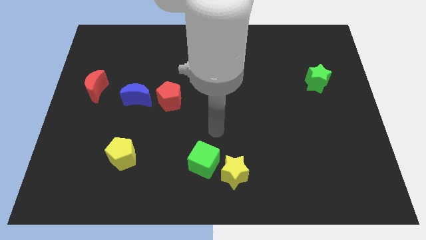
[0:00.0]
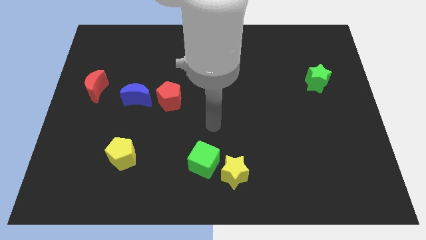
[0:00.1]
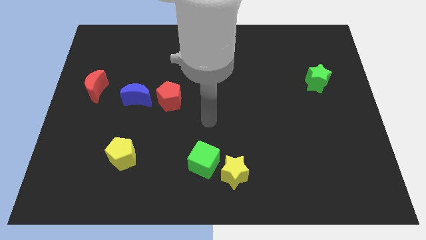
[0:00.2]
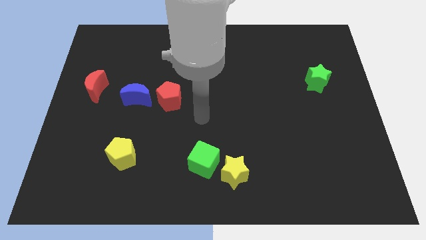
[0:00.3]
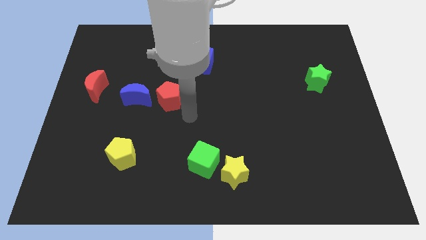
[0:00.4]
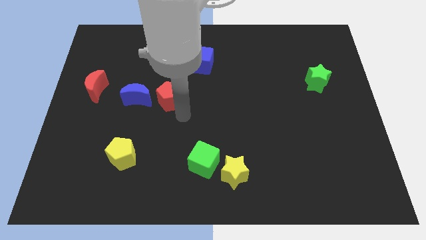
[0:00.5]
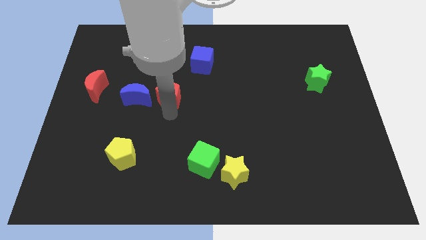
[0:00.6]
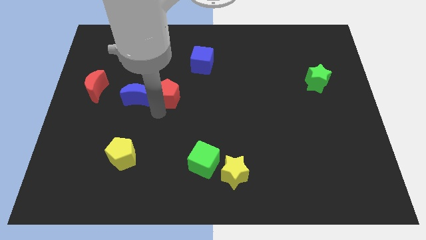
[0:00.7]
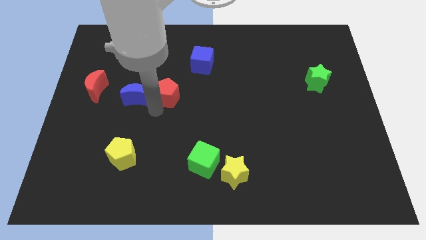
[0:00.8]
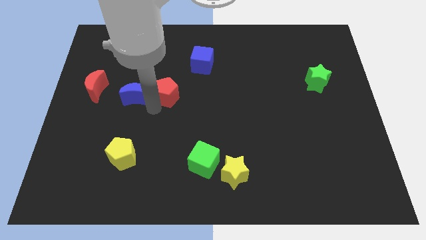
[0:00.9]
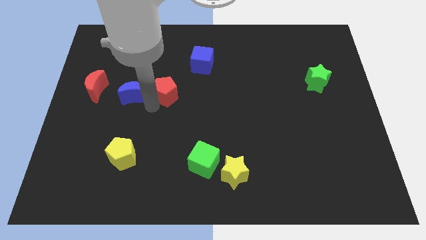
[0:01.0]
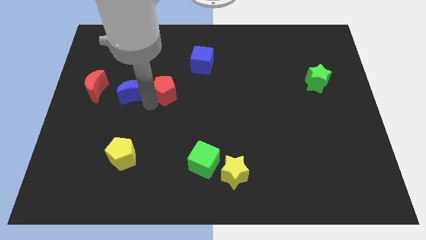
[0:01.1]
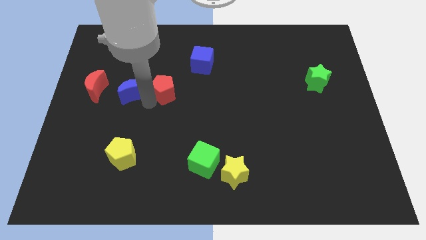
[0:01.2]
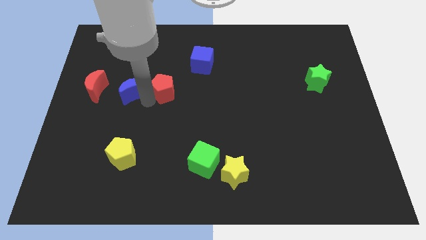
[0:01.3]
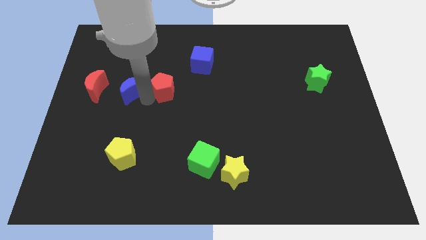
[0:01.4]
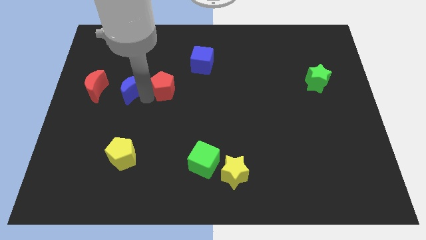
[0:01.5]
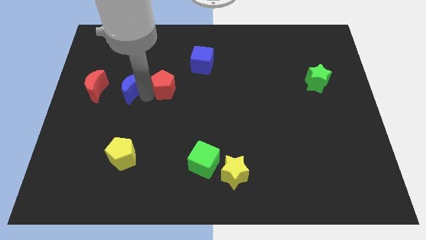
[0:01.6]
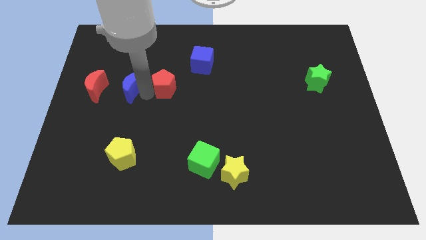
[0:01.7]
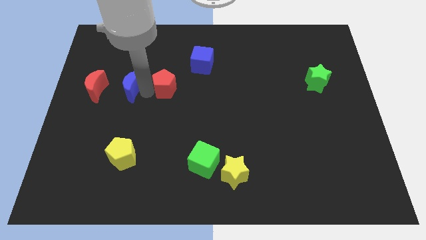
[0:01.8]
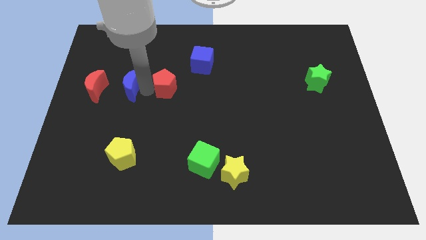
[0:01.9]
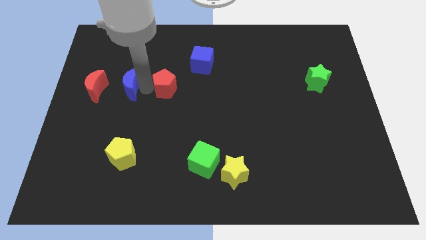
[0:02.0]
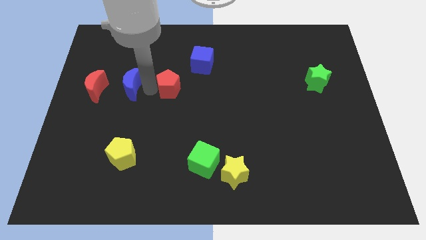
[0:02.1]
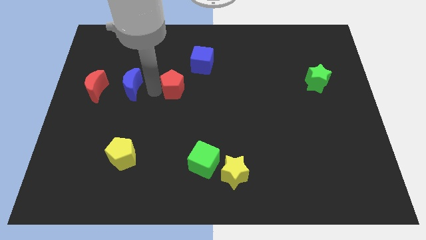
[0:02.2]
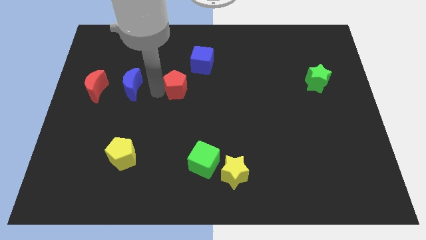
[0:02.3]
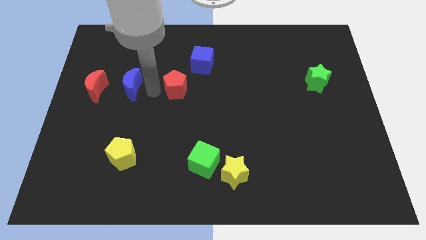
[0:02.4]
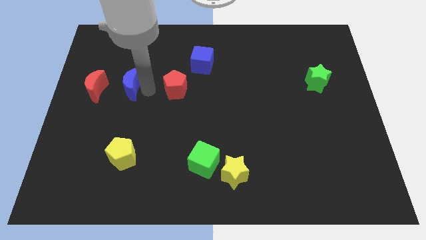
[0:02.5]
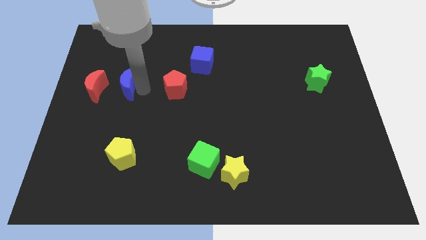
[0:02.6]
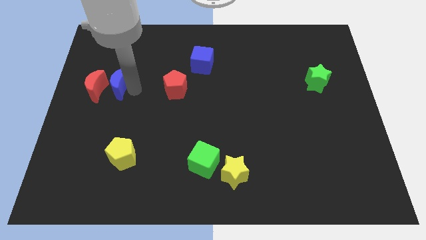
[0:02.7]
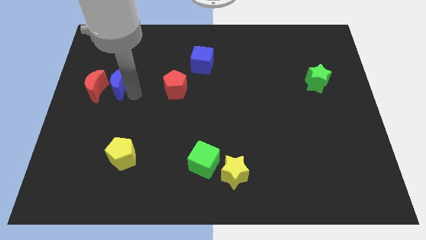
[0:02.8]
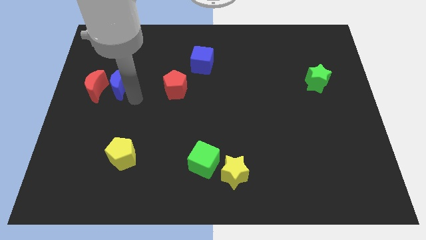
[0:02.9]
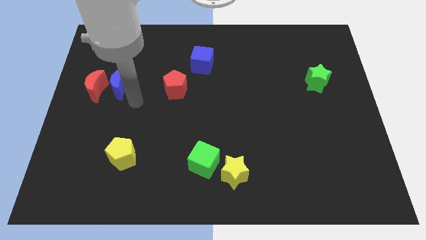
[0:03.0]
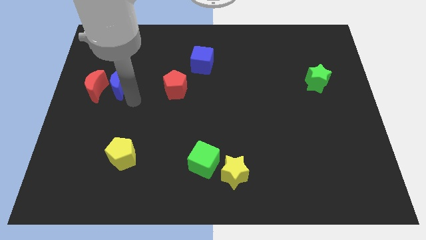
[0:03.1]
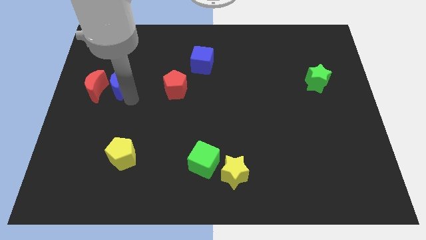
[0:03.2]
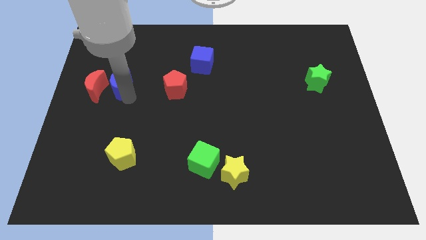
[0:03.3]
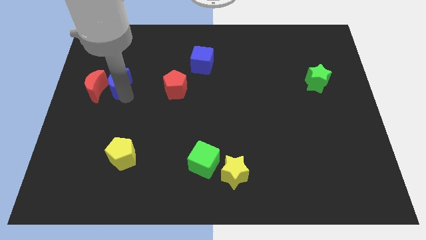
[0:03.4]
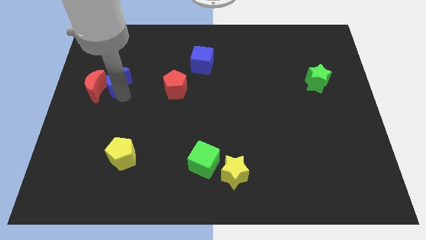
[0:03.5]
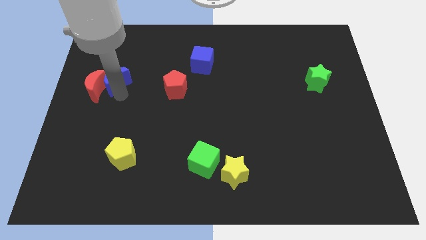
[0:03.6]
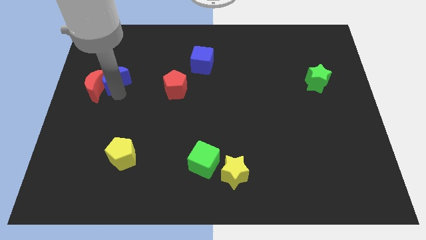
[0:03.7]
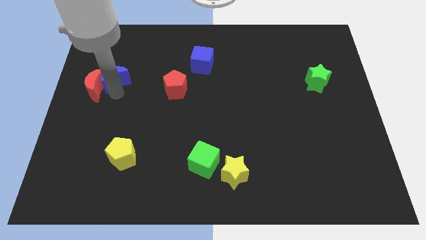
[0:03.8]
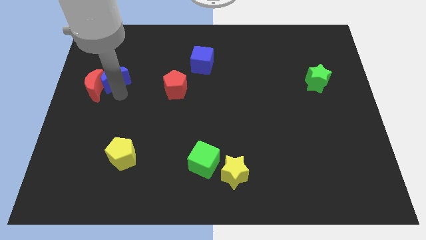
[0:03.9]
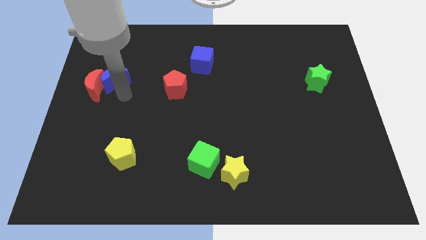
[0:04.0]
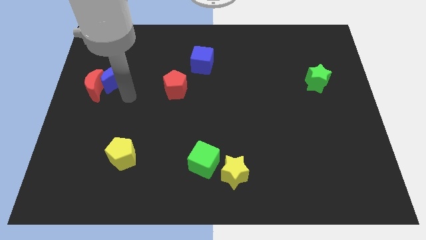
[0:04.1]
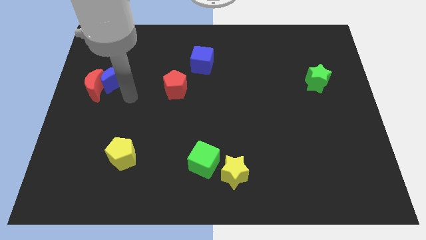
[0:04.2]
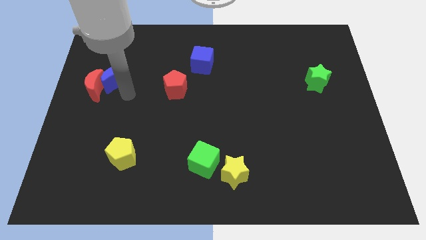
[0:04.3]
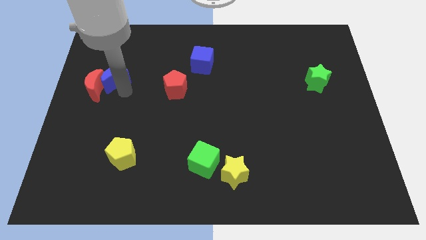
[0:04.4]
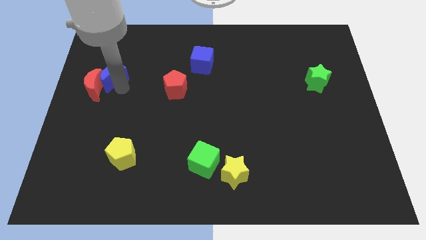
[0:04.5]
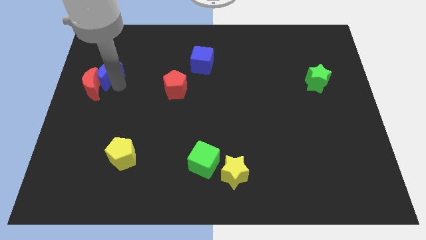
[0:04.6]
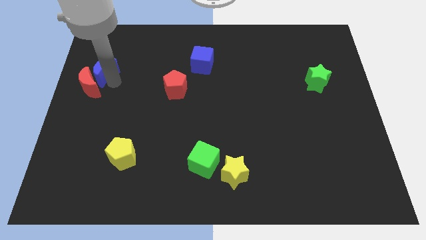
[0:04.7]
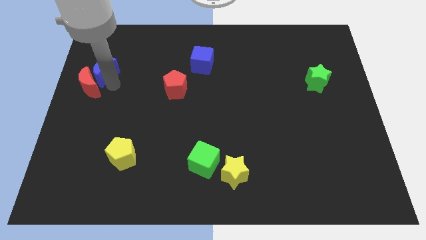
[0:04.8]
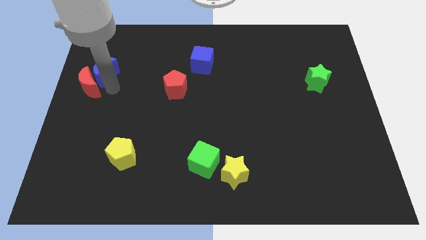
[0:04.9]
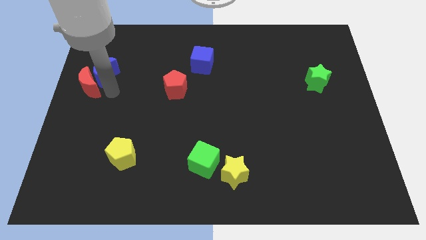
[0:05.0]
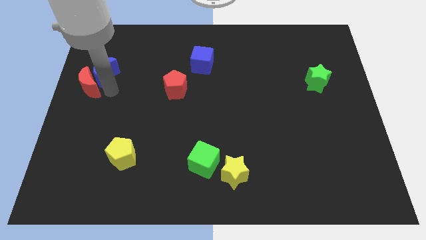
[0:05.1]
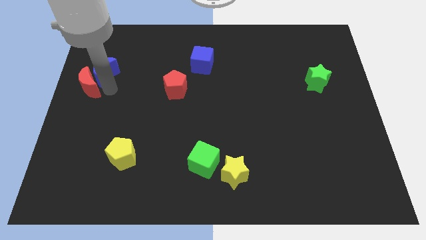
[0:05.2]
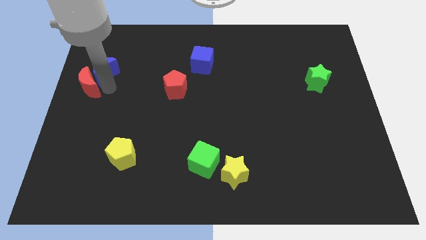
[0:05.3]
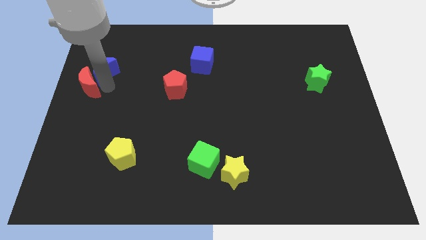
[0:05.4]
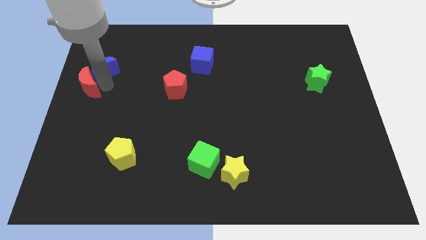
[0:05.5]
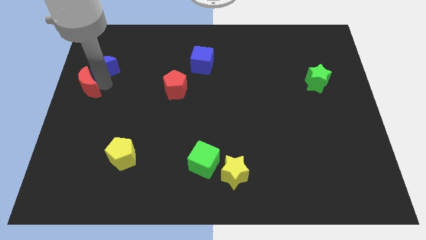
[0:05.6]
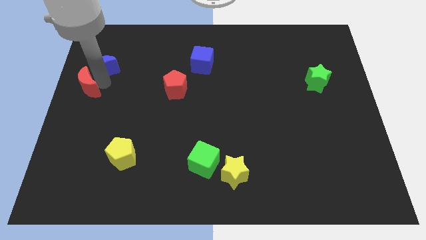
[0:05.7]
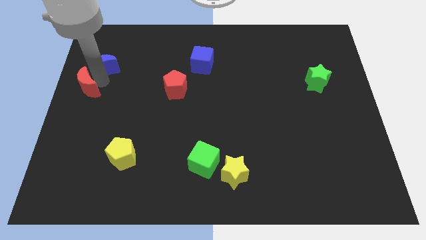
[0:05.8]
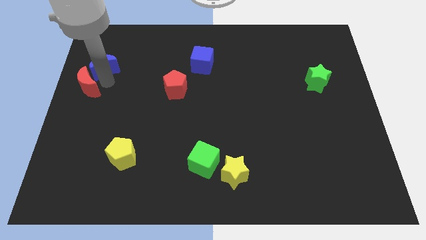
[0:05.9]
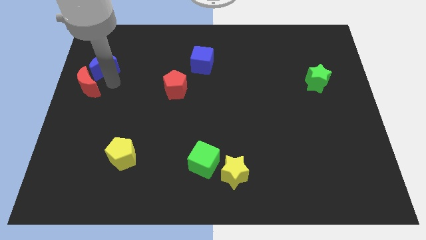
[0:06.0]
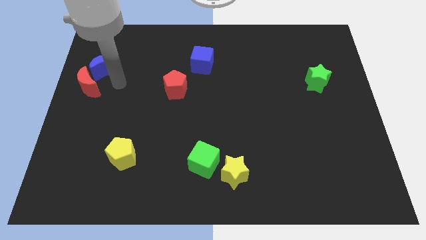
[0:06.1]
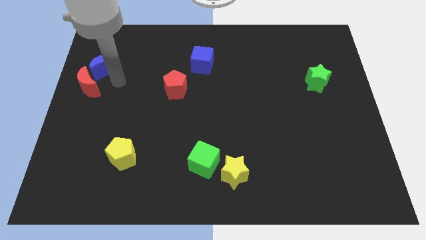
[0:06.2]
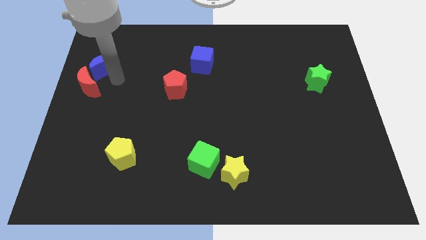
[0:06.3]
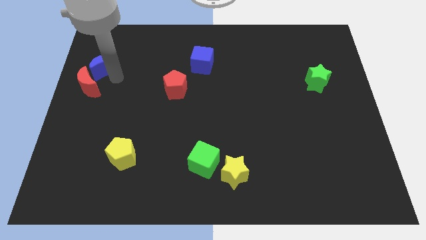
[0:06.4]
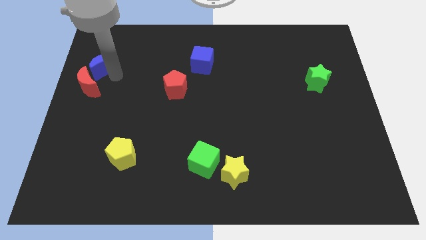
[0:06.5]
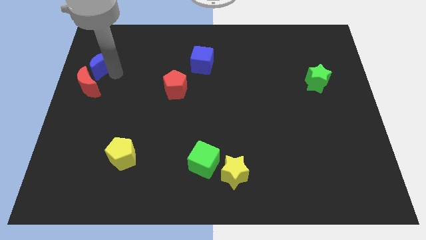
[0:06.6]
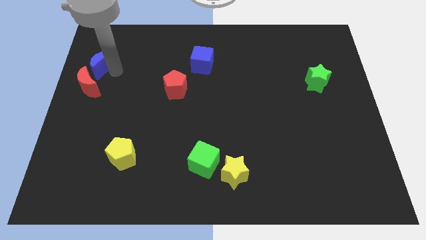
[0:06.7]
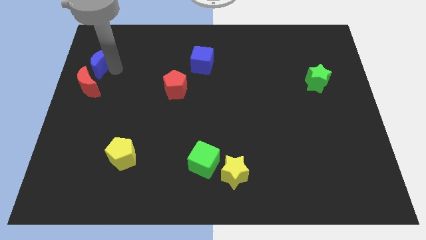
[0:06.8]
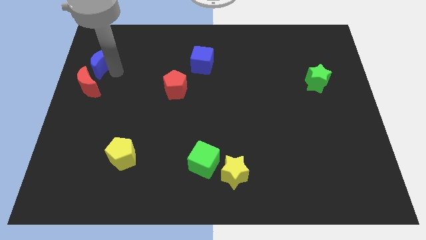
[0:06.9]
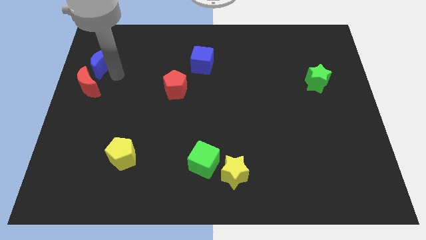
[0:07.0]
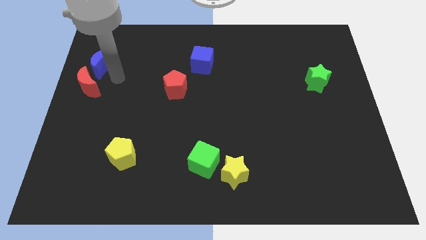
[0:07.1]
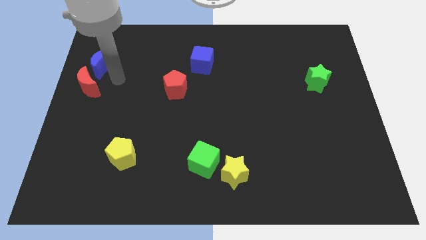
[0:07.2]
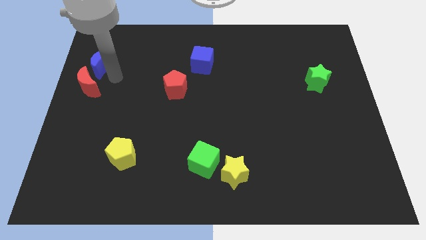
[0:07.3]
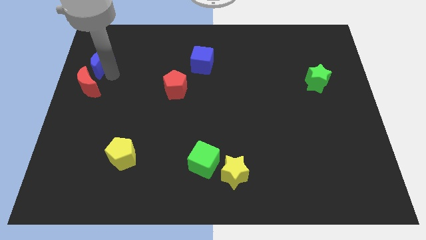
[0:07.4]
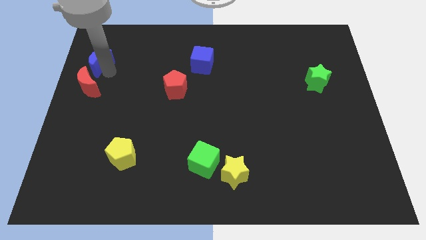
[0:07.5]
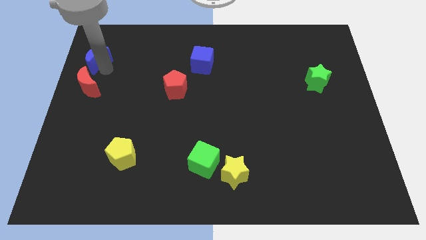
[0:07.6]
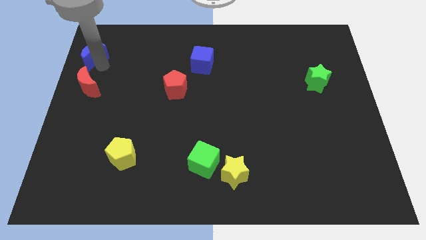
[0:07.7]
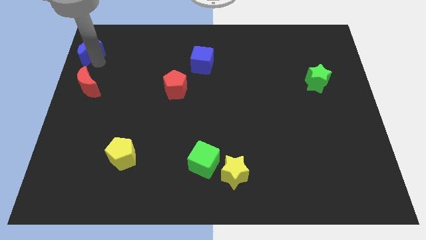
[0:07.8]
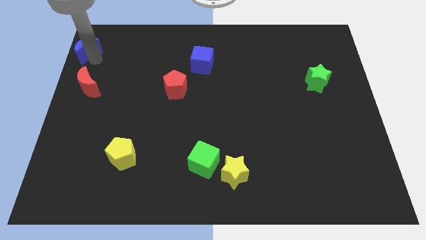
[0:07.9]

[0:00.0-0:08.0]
slide the blue moon to the top left of the board
